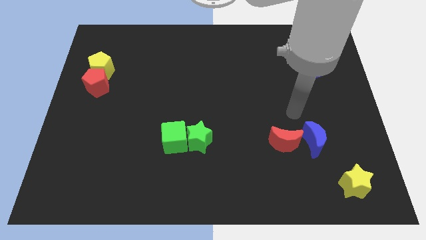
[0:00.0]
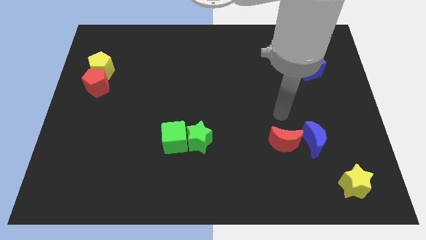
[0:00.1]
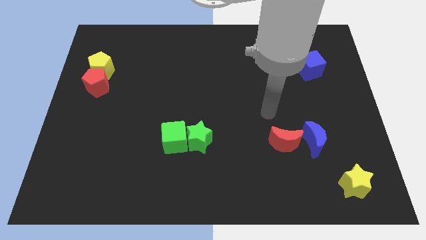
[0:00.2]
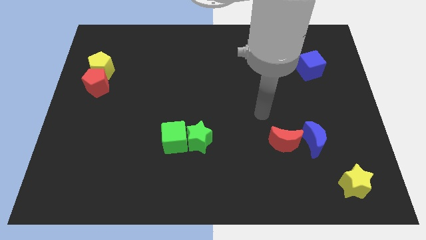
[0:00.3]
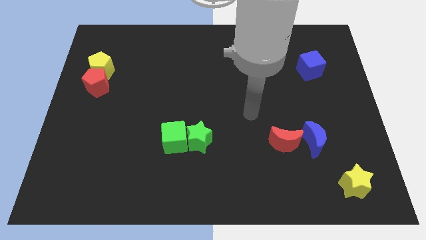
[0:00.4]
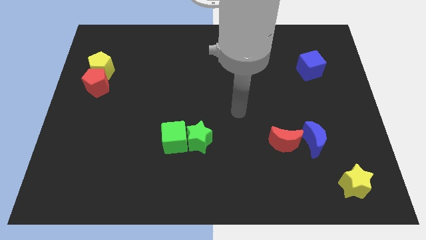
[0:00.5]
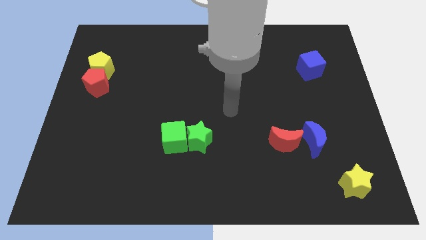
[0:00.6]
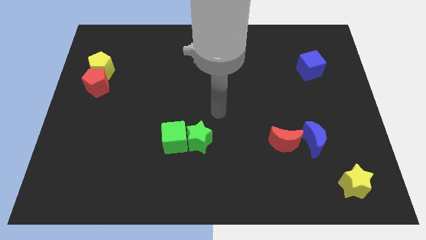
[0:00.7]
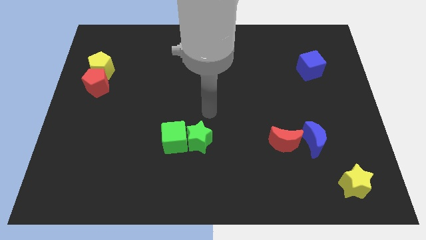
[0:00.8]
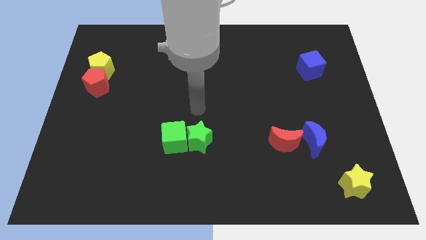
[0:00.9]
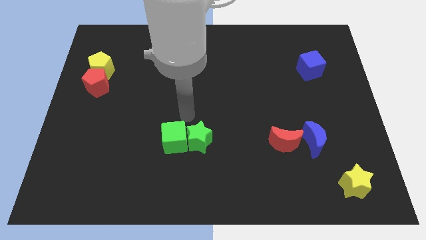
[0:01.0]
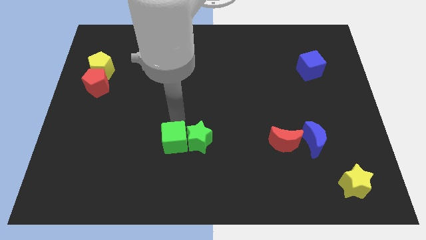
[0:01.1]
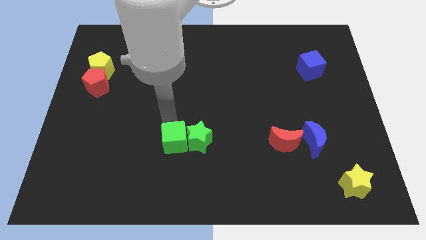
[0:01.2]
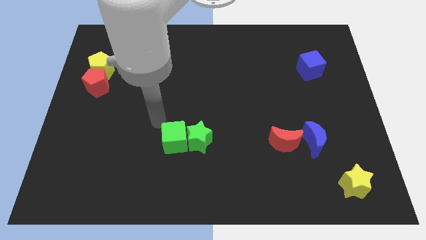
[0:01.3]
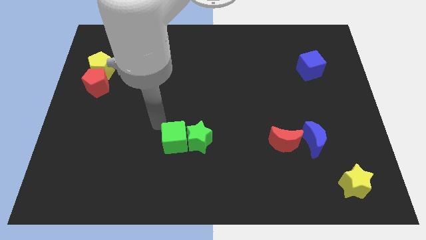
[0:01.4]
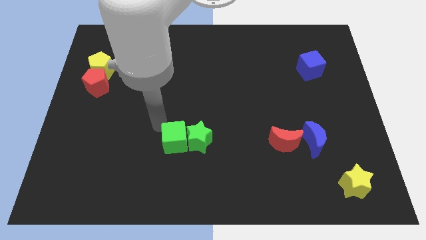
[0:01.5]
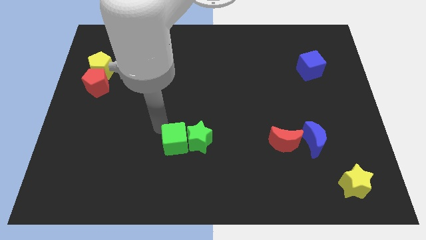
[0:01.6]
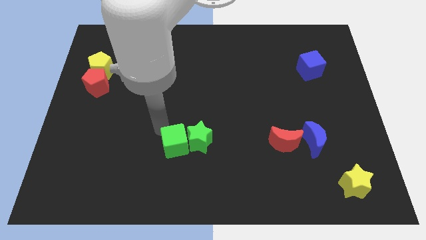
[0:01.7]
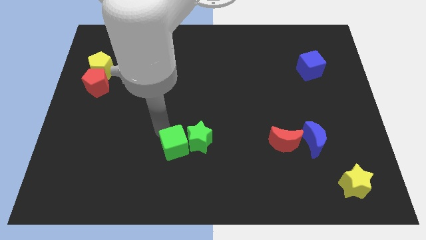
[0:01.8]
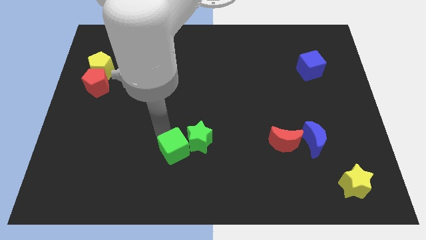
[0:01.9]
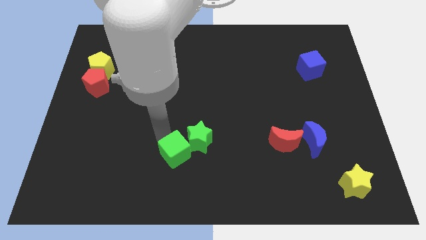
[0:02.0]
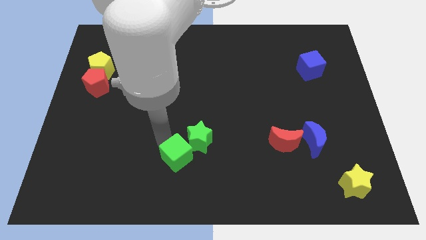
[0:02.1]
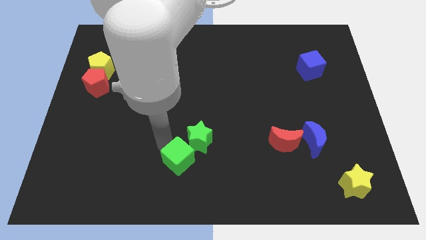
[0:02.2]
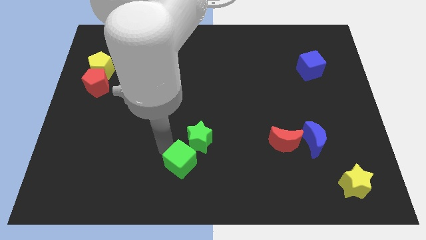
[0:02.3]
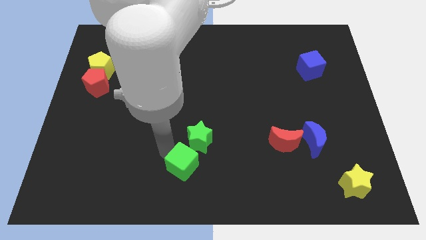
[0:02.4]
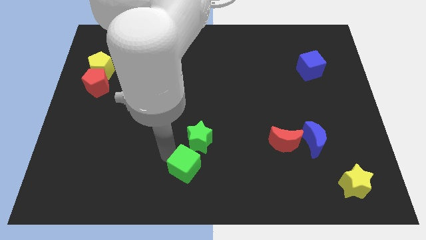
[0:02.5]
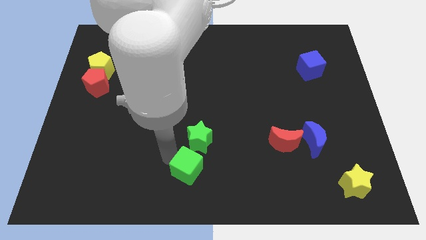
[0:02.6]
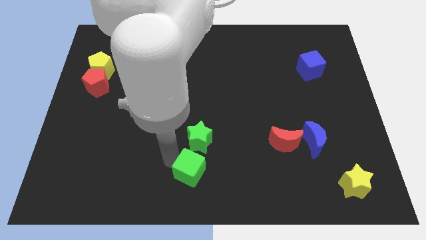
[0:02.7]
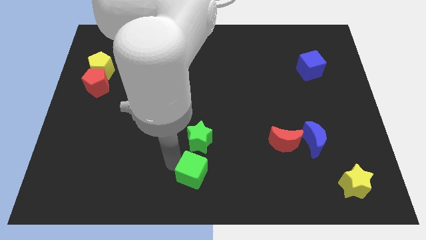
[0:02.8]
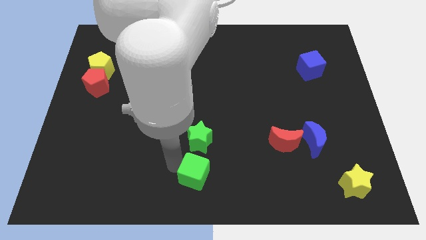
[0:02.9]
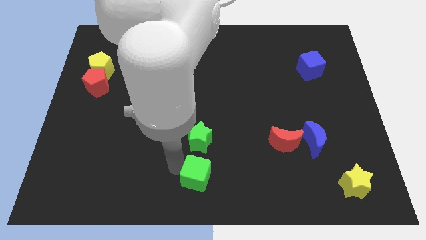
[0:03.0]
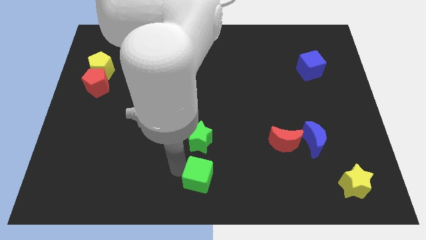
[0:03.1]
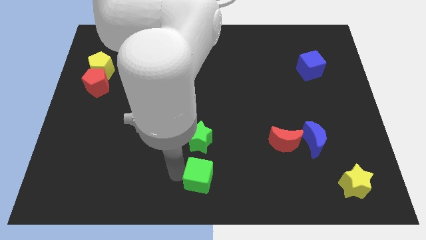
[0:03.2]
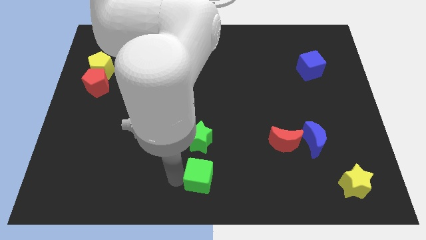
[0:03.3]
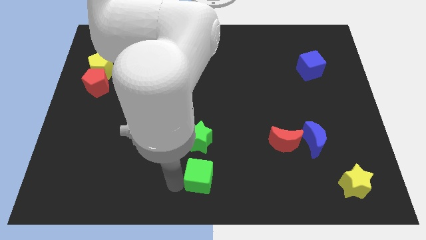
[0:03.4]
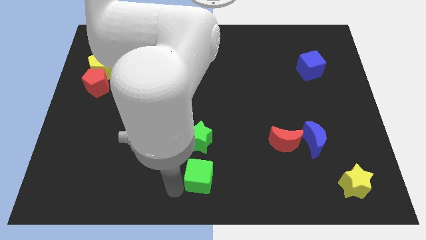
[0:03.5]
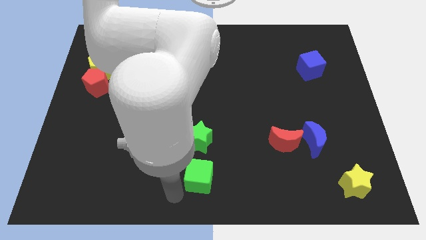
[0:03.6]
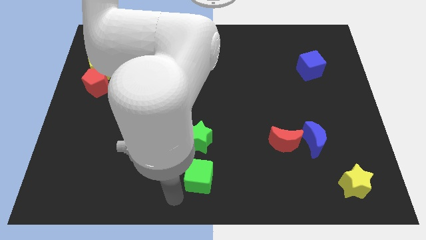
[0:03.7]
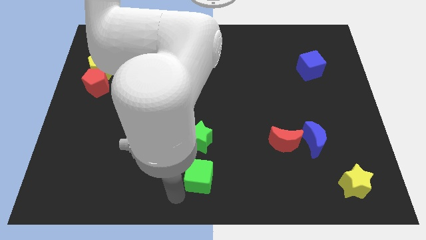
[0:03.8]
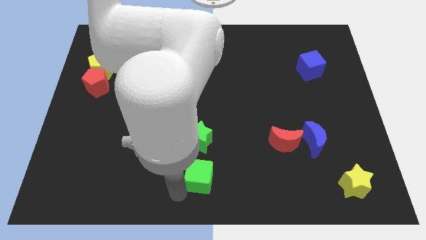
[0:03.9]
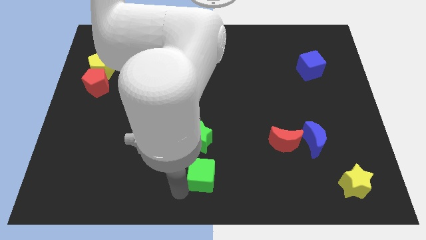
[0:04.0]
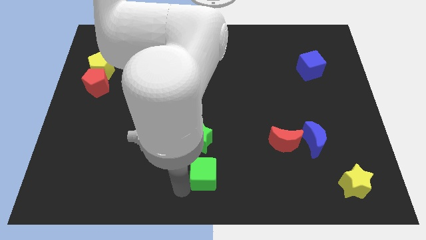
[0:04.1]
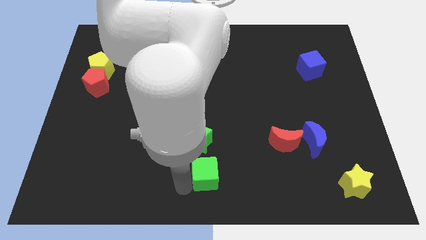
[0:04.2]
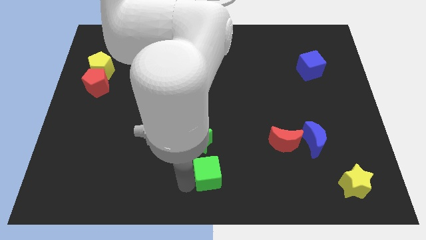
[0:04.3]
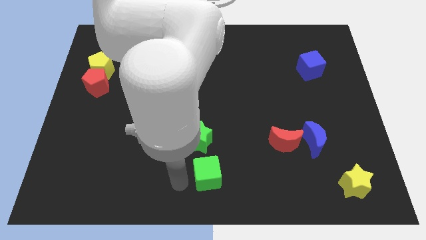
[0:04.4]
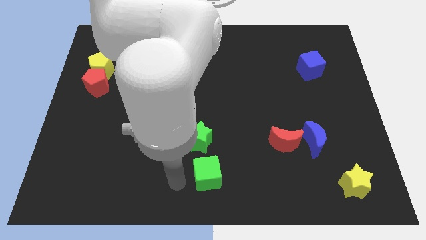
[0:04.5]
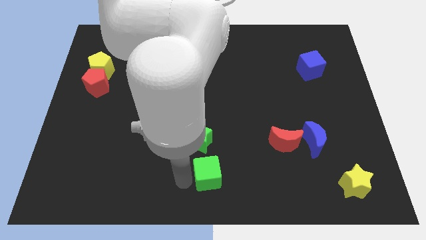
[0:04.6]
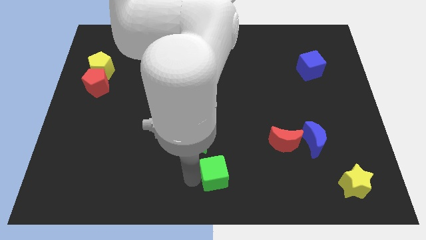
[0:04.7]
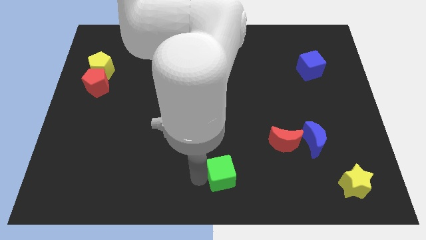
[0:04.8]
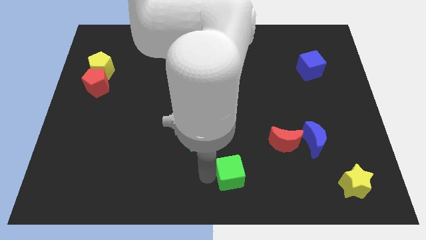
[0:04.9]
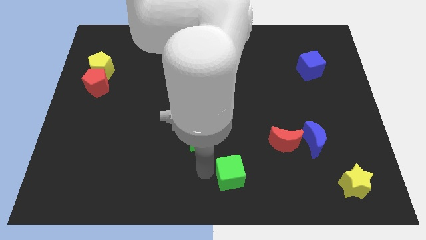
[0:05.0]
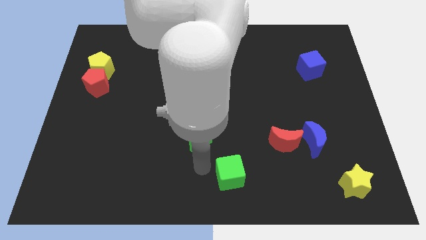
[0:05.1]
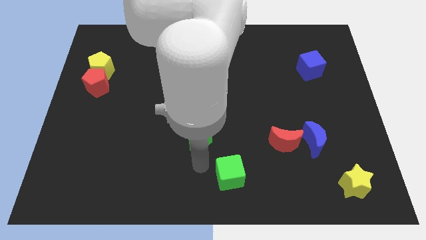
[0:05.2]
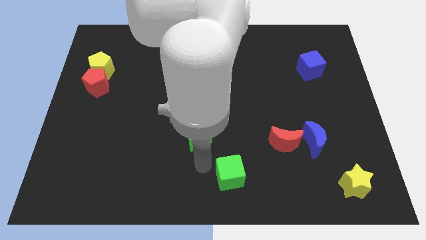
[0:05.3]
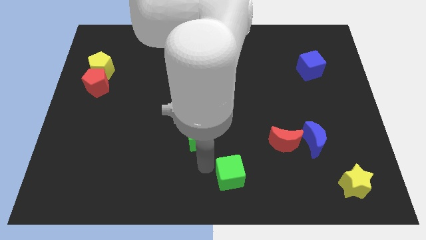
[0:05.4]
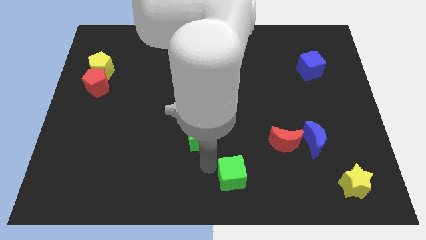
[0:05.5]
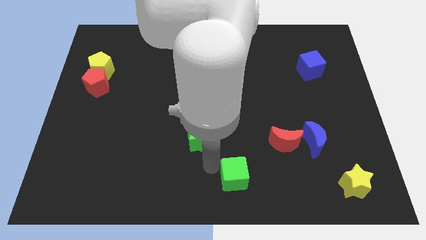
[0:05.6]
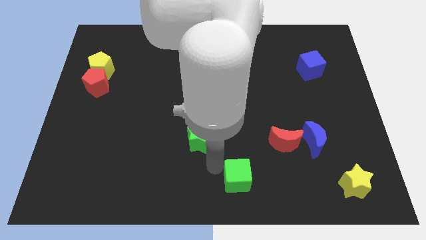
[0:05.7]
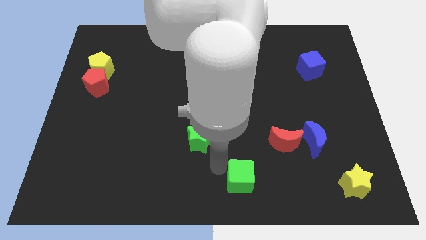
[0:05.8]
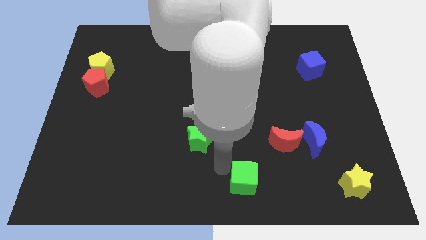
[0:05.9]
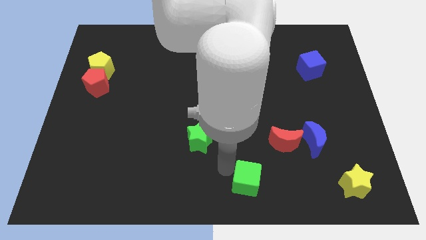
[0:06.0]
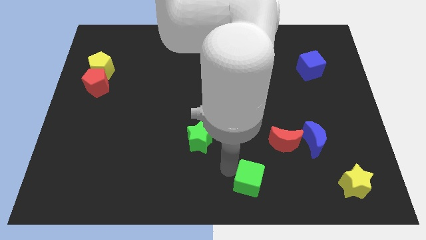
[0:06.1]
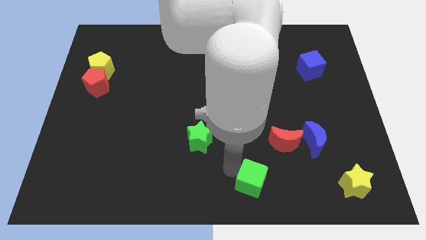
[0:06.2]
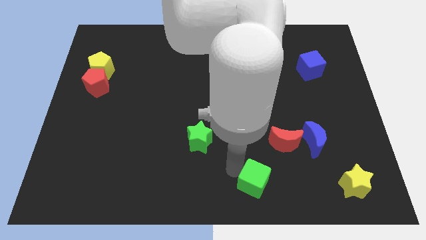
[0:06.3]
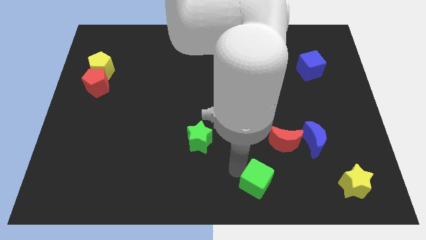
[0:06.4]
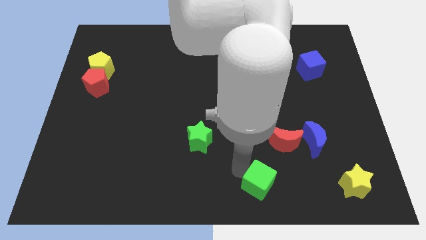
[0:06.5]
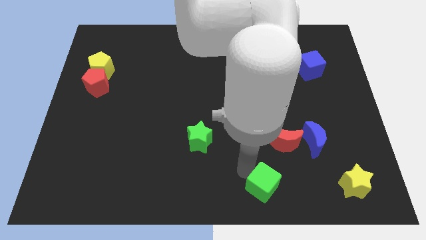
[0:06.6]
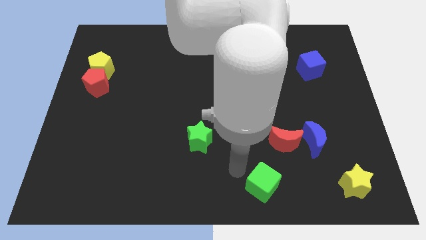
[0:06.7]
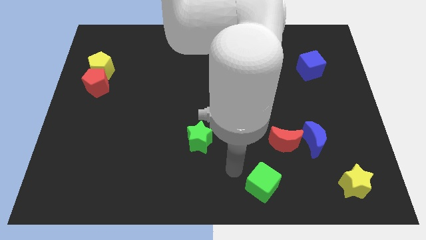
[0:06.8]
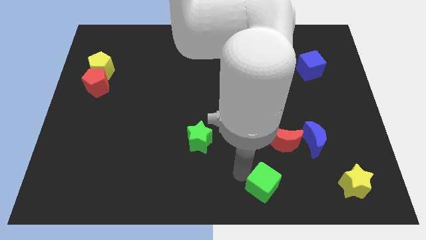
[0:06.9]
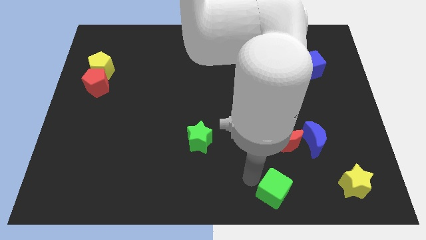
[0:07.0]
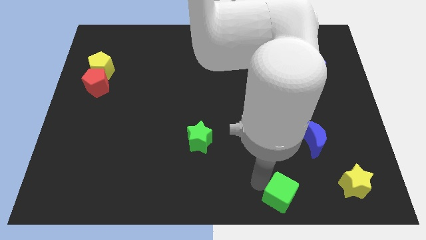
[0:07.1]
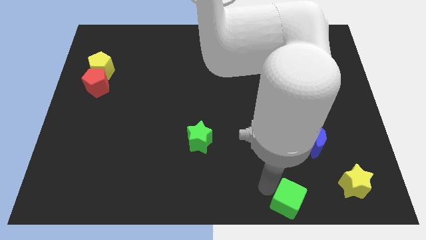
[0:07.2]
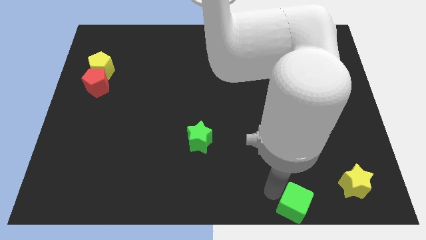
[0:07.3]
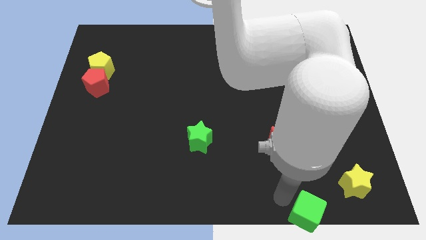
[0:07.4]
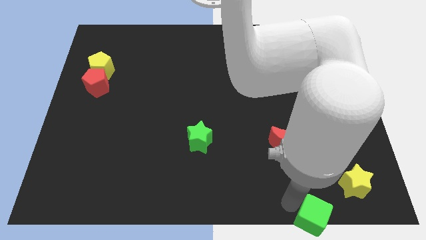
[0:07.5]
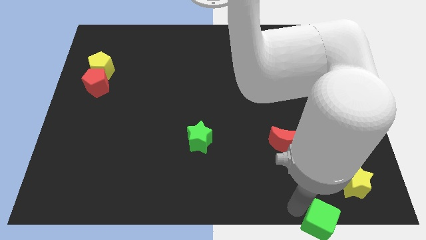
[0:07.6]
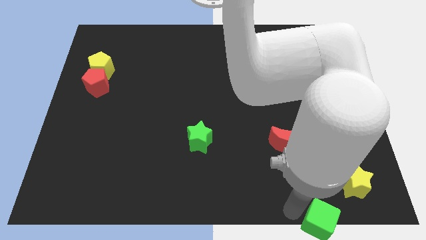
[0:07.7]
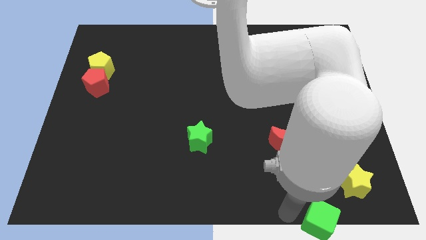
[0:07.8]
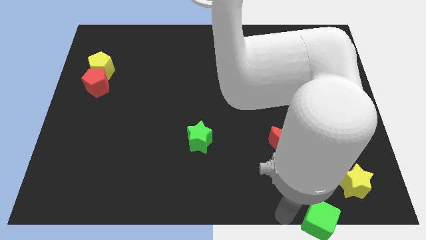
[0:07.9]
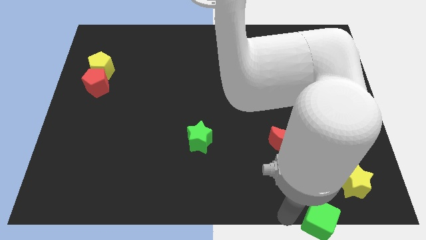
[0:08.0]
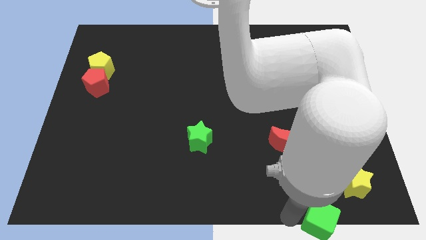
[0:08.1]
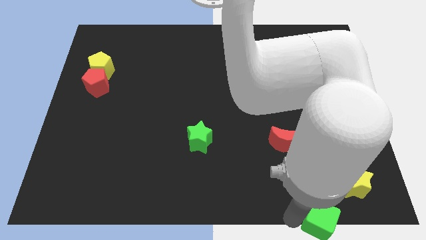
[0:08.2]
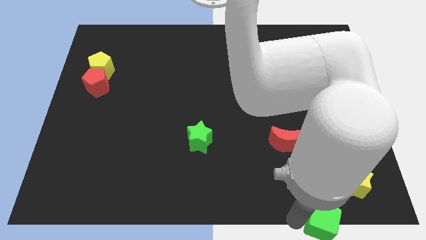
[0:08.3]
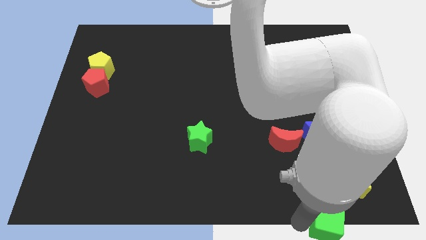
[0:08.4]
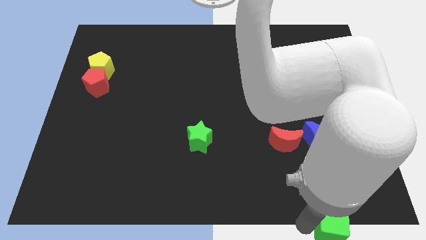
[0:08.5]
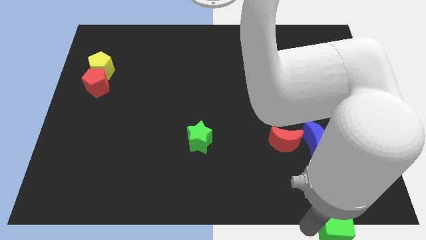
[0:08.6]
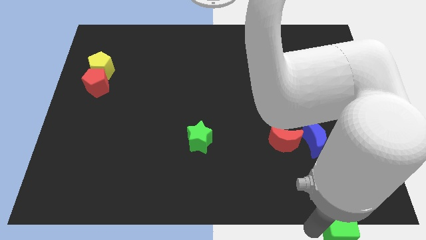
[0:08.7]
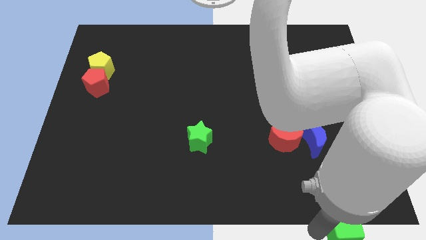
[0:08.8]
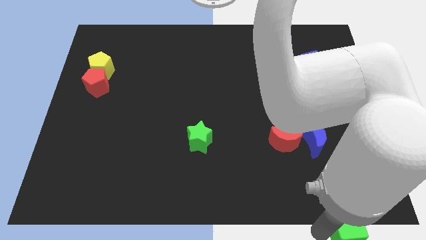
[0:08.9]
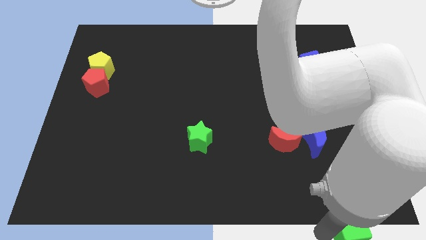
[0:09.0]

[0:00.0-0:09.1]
slide the green cube to the lower right corner
